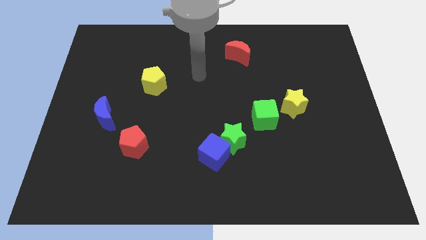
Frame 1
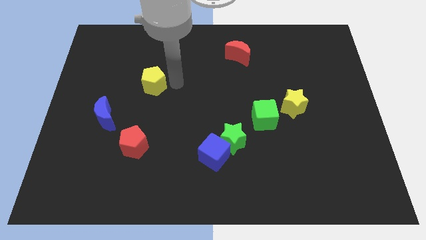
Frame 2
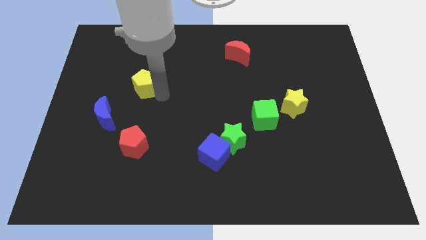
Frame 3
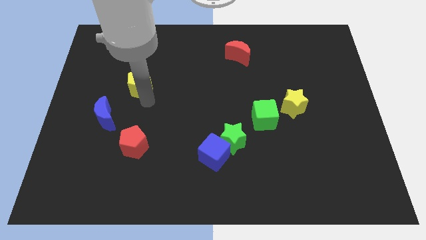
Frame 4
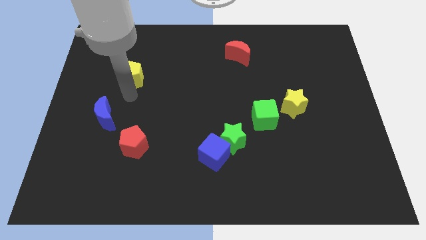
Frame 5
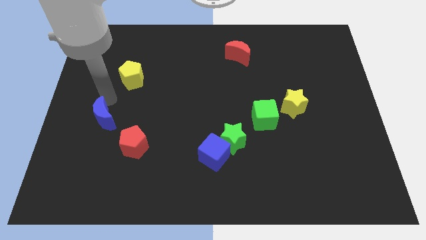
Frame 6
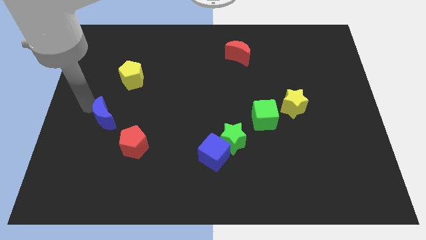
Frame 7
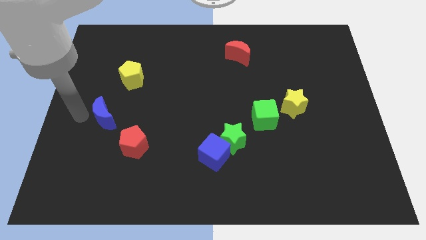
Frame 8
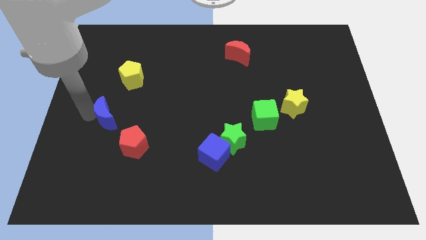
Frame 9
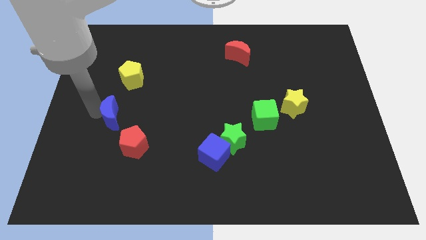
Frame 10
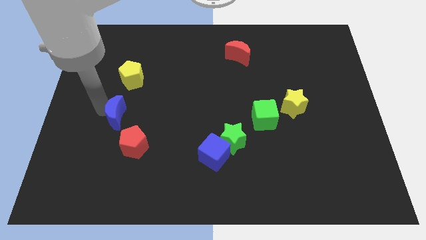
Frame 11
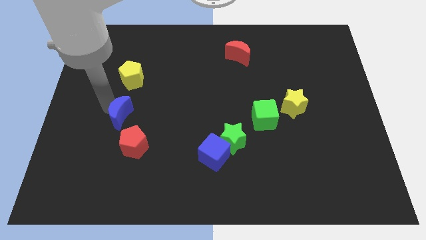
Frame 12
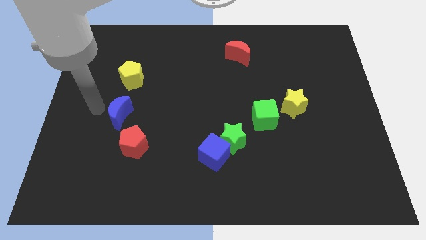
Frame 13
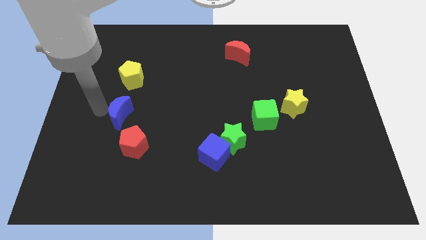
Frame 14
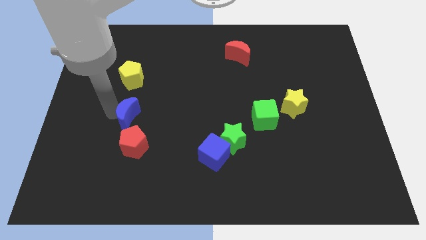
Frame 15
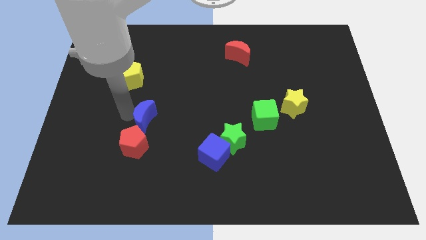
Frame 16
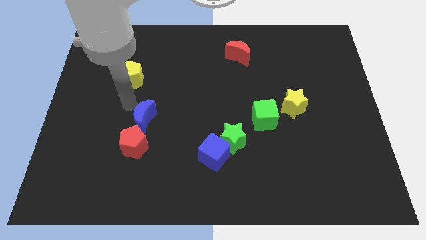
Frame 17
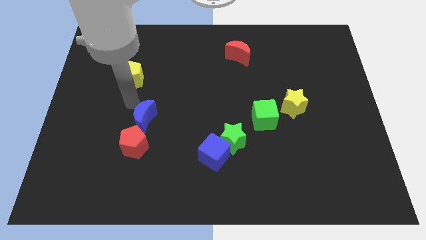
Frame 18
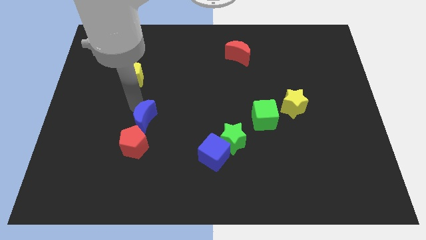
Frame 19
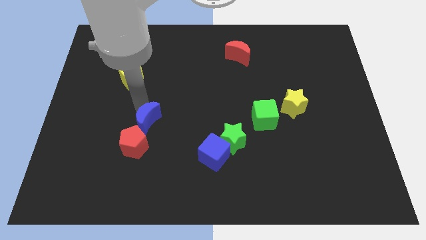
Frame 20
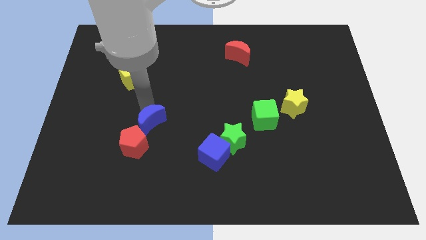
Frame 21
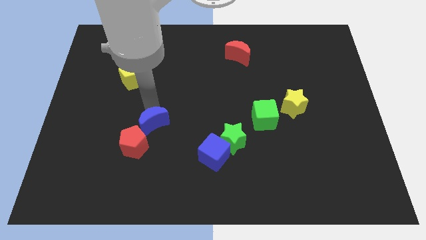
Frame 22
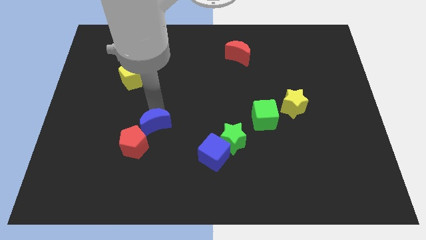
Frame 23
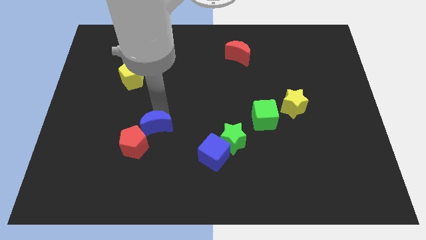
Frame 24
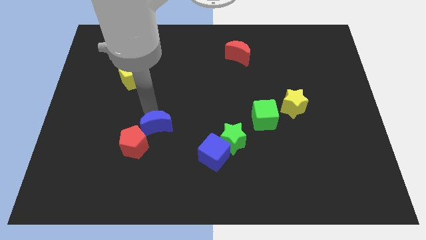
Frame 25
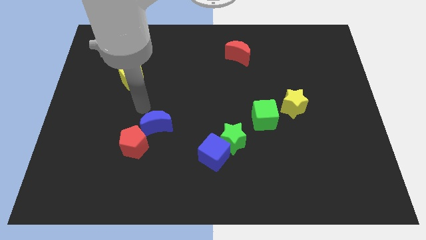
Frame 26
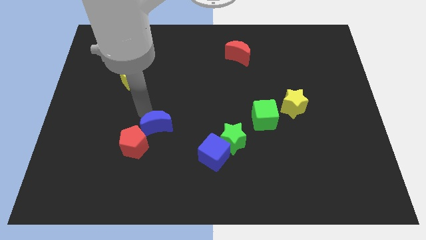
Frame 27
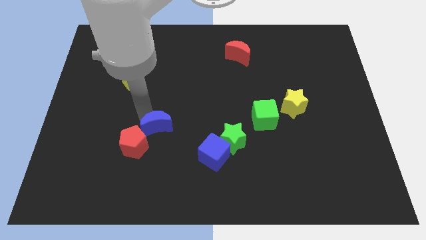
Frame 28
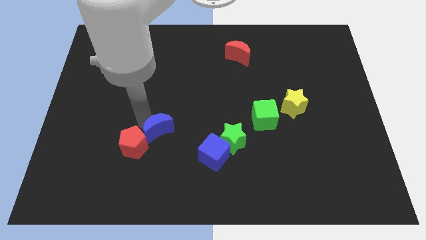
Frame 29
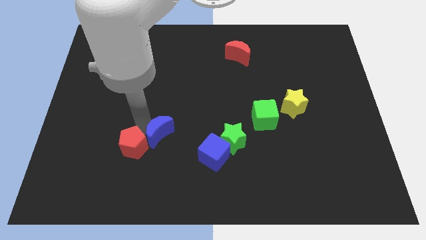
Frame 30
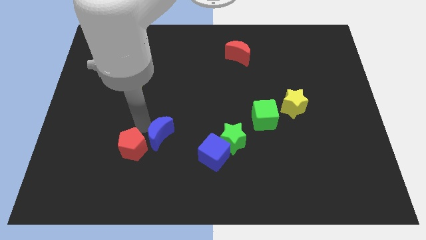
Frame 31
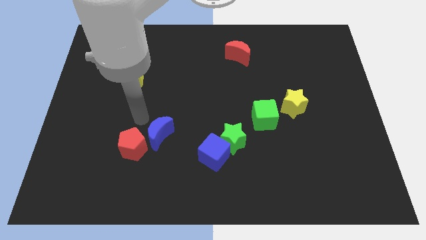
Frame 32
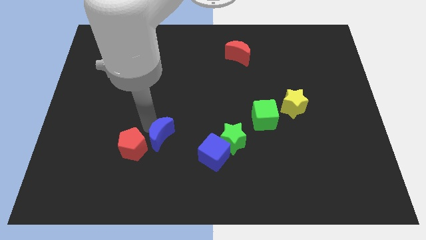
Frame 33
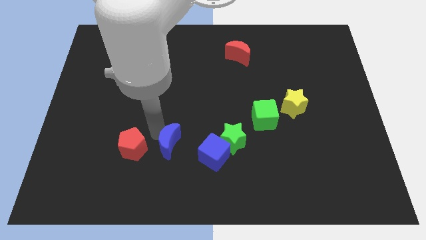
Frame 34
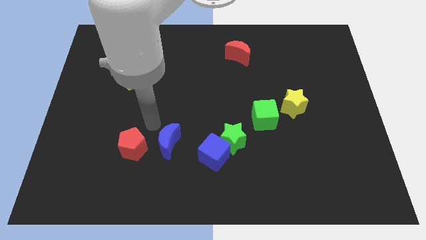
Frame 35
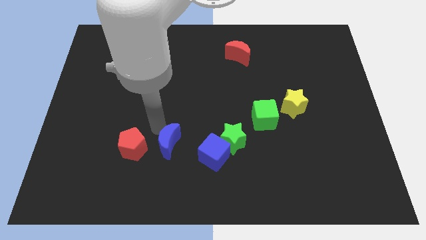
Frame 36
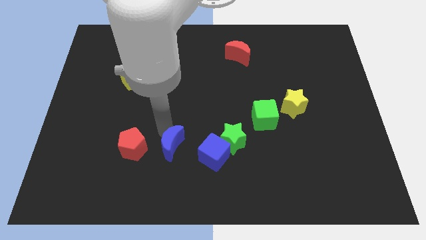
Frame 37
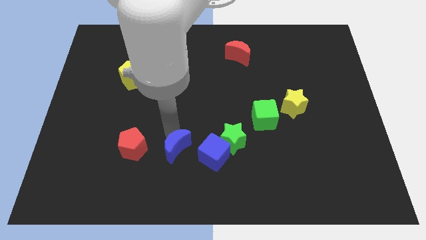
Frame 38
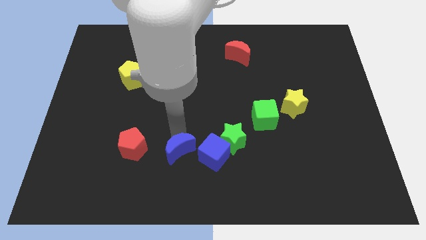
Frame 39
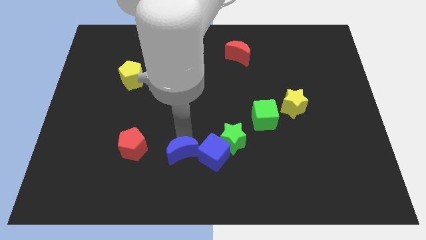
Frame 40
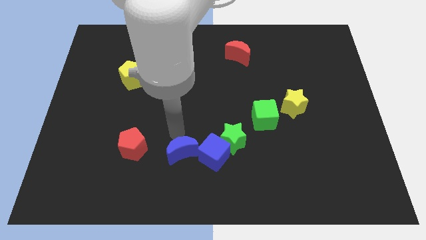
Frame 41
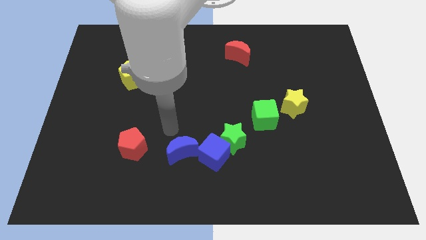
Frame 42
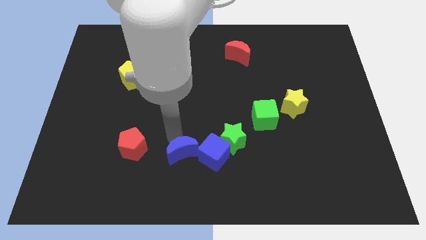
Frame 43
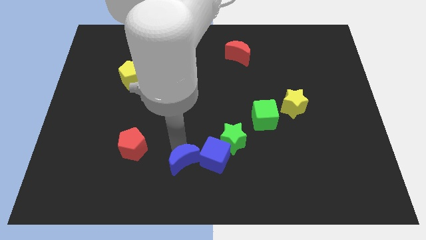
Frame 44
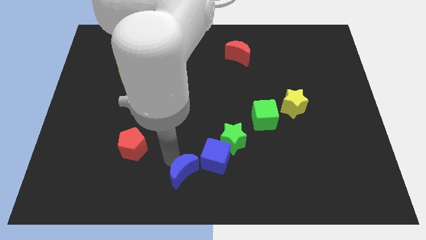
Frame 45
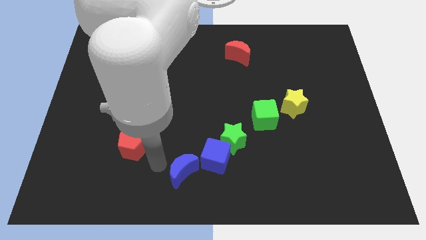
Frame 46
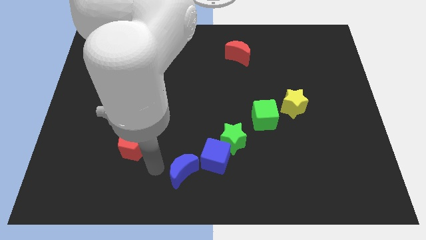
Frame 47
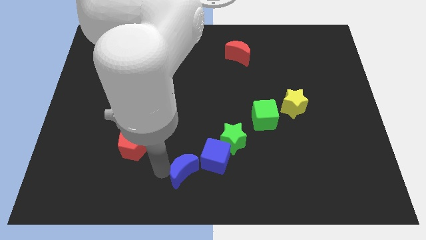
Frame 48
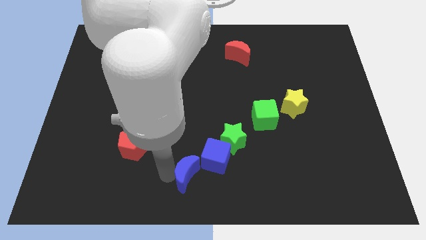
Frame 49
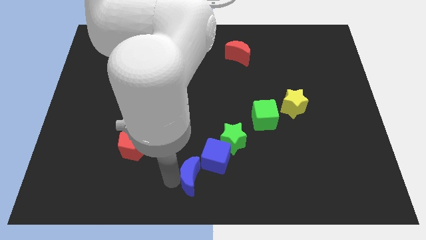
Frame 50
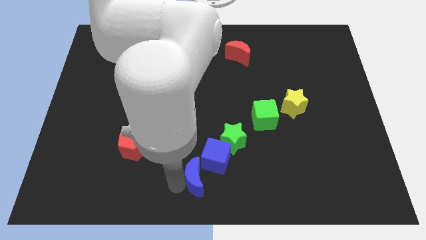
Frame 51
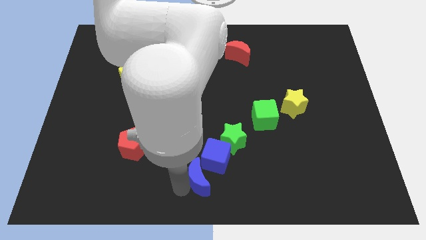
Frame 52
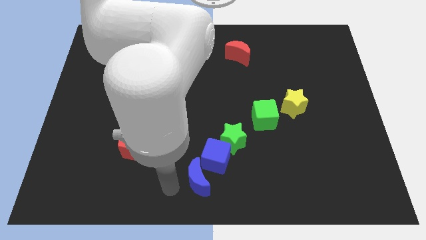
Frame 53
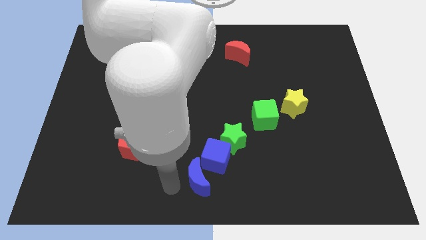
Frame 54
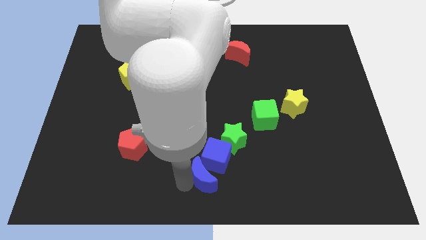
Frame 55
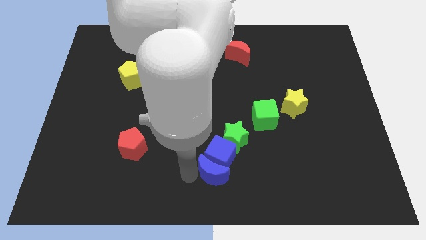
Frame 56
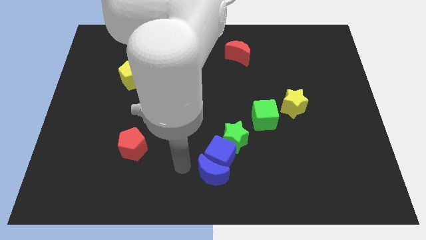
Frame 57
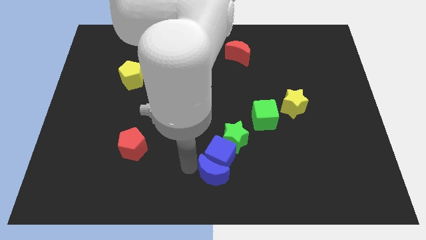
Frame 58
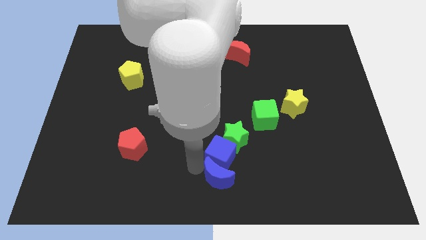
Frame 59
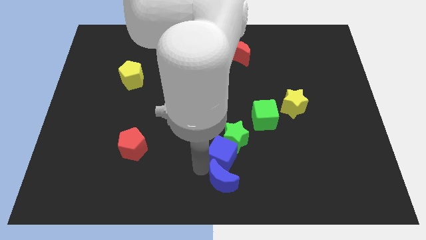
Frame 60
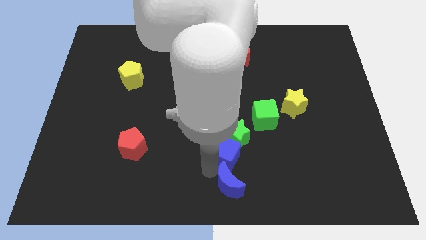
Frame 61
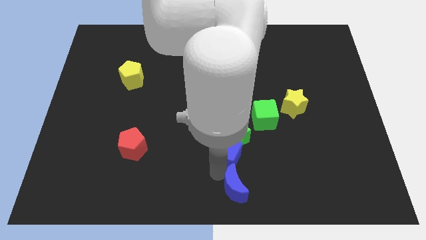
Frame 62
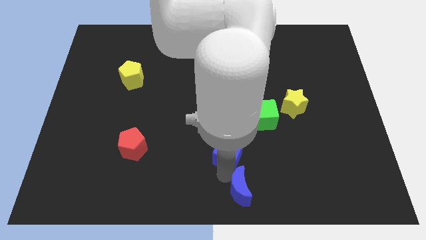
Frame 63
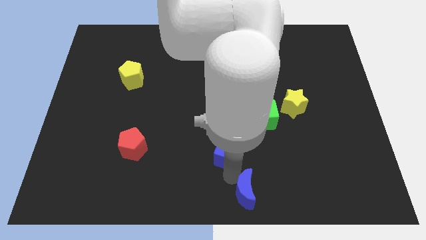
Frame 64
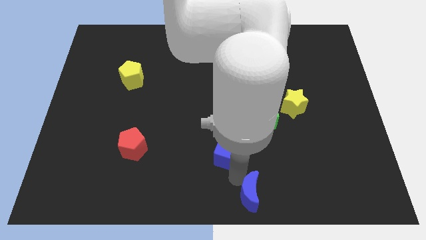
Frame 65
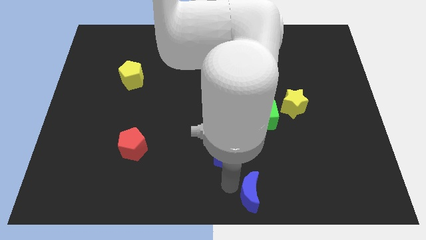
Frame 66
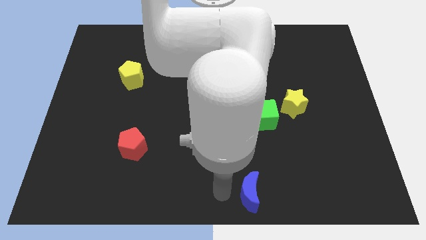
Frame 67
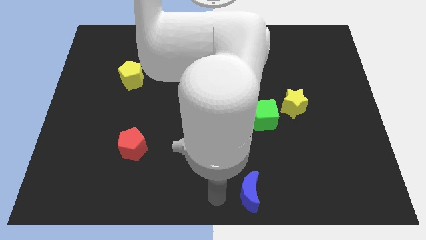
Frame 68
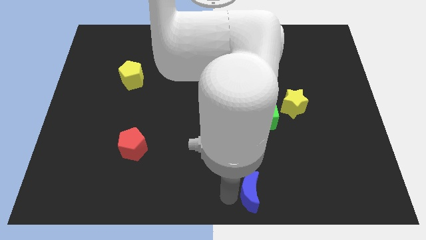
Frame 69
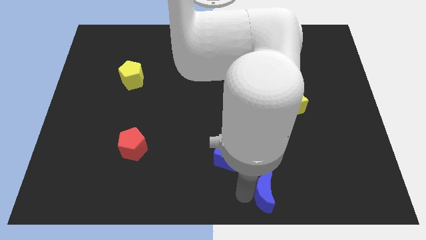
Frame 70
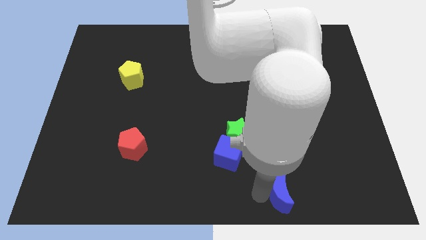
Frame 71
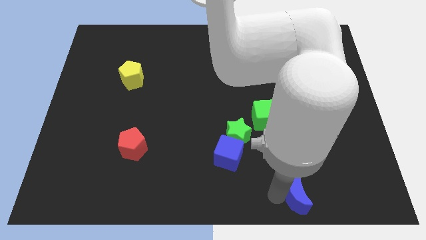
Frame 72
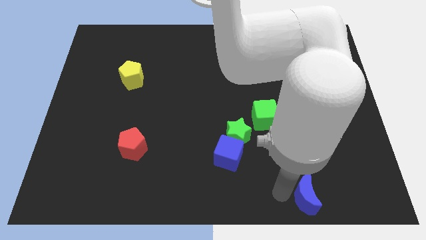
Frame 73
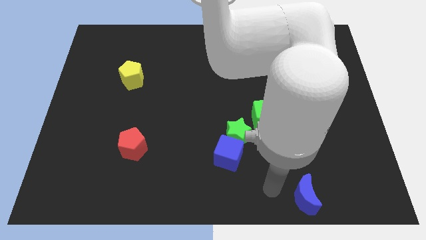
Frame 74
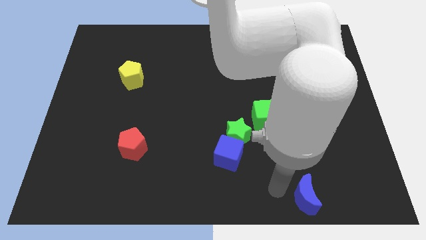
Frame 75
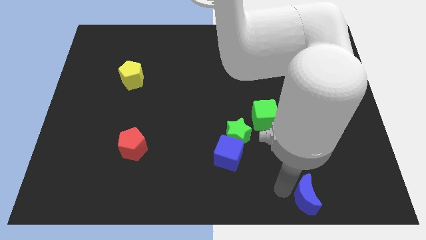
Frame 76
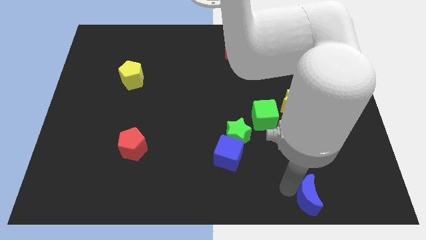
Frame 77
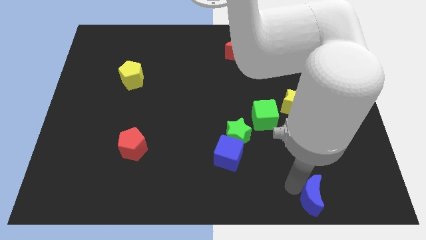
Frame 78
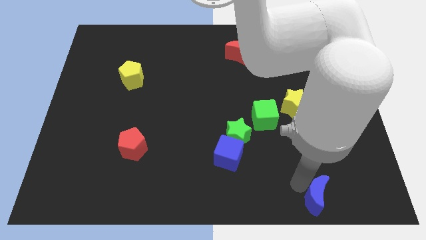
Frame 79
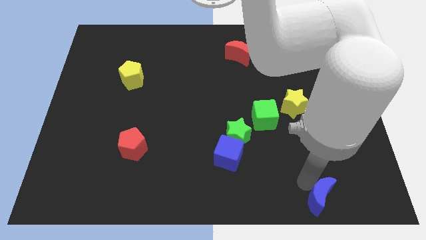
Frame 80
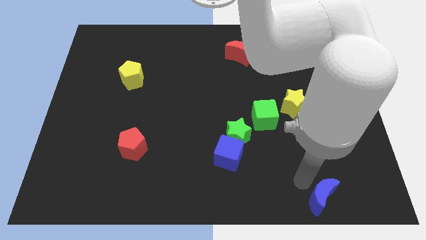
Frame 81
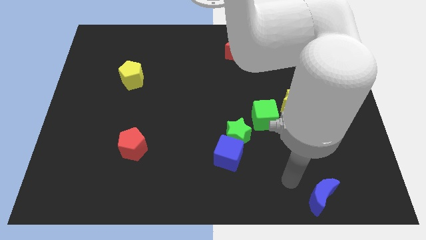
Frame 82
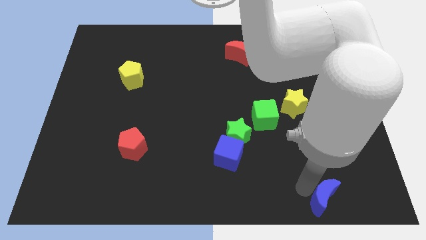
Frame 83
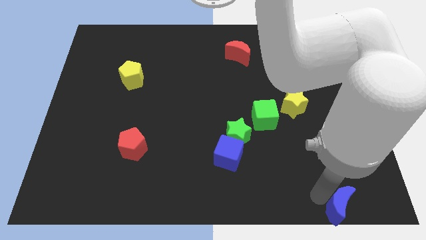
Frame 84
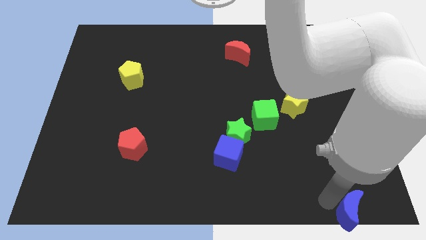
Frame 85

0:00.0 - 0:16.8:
push the blue moon to the bottom right of the board
